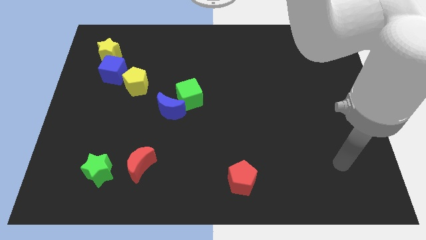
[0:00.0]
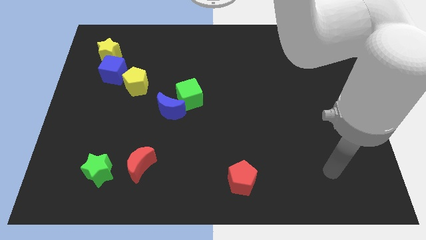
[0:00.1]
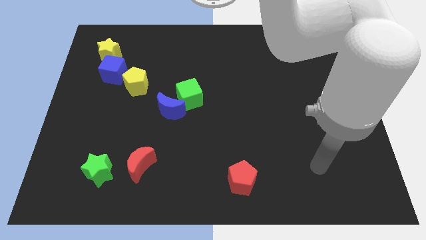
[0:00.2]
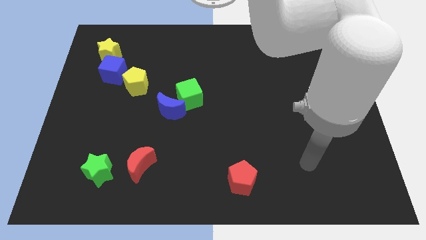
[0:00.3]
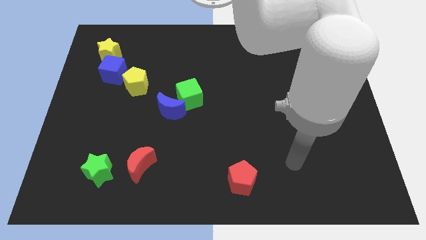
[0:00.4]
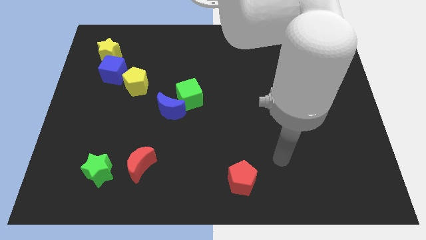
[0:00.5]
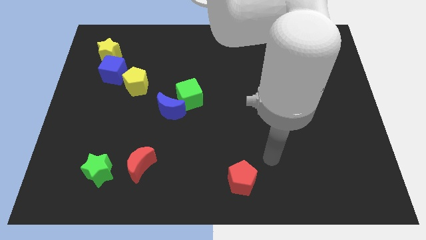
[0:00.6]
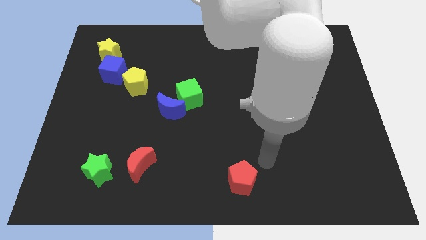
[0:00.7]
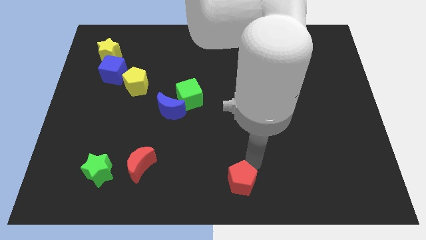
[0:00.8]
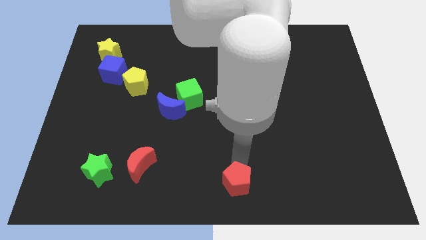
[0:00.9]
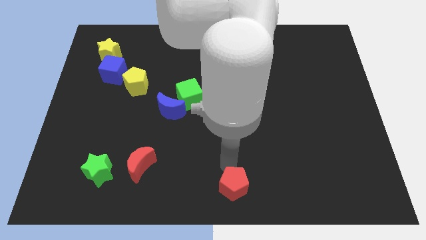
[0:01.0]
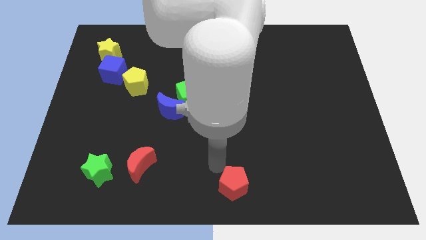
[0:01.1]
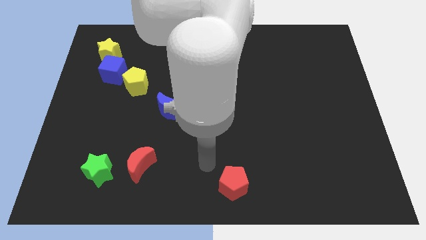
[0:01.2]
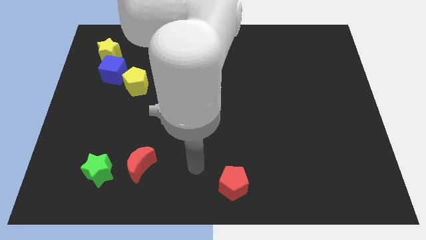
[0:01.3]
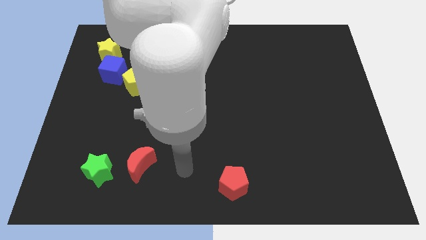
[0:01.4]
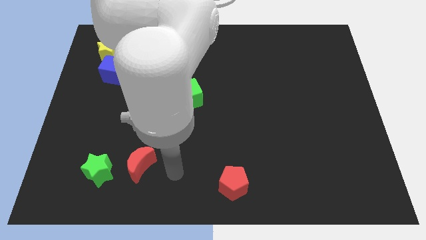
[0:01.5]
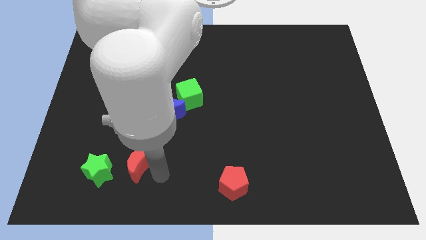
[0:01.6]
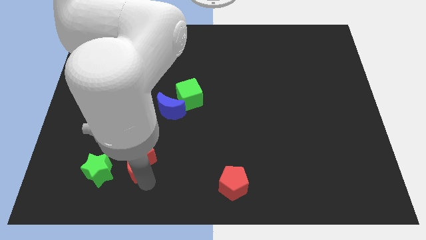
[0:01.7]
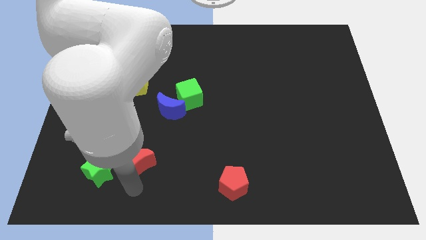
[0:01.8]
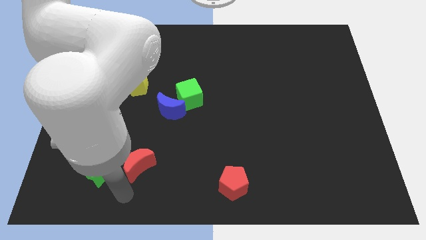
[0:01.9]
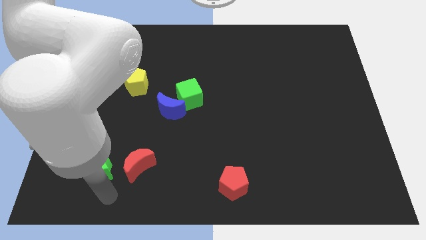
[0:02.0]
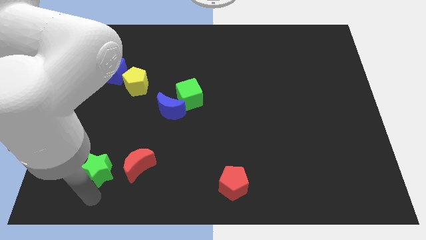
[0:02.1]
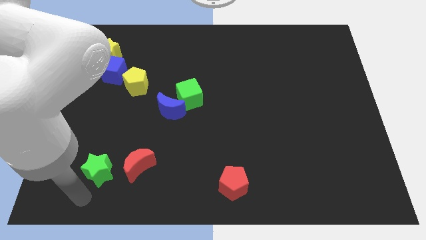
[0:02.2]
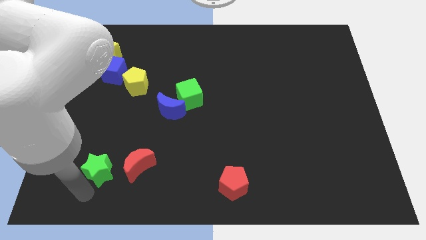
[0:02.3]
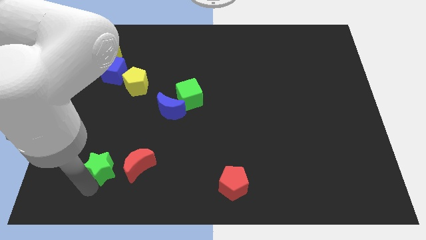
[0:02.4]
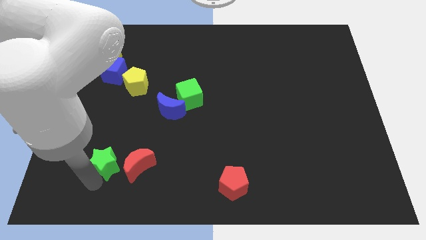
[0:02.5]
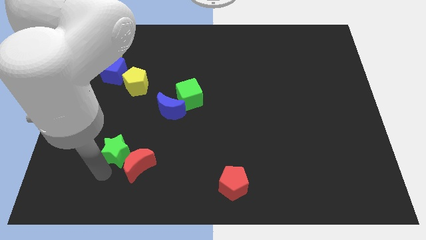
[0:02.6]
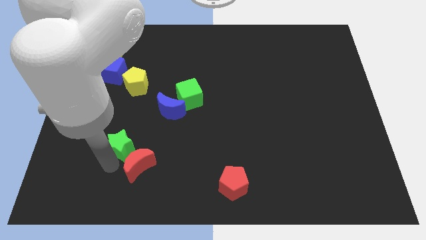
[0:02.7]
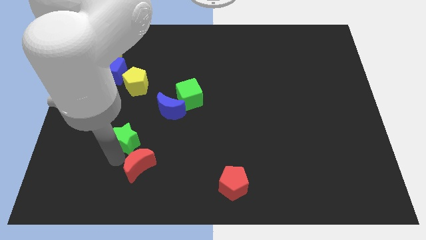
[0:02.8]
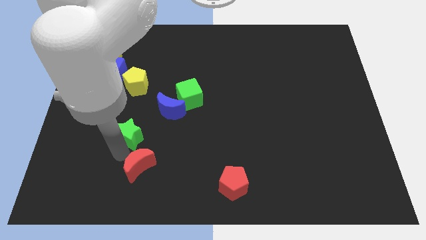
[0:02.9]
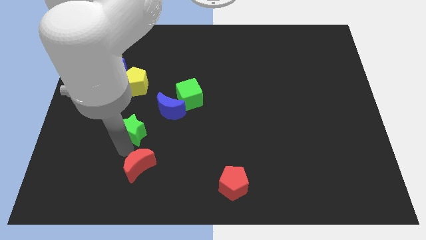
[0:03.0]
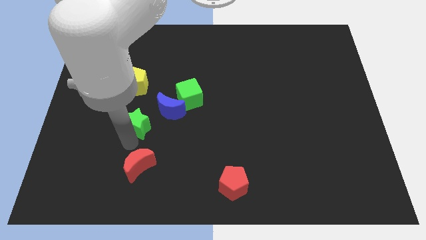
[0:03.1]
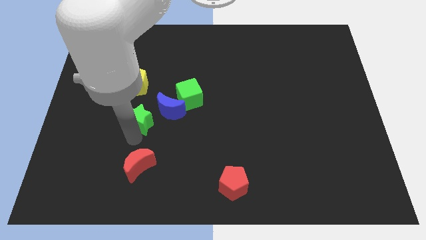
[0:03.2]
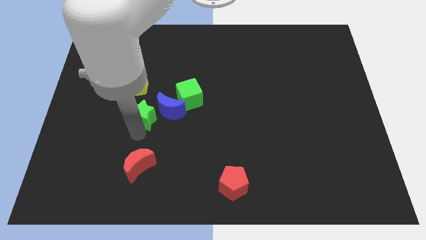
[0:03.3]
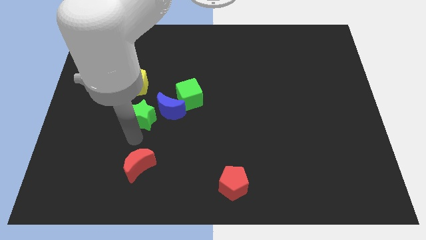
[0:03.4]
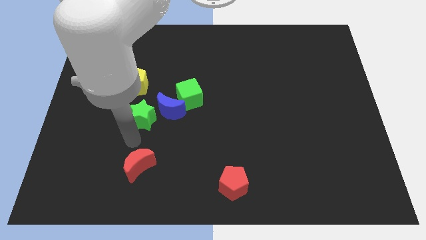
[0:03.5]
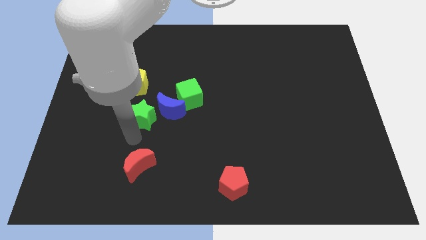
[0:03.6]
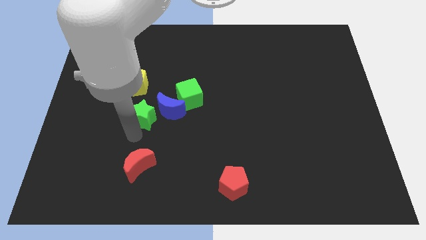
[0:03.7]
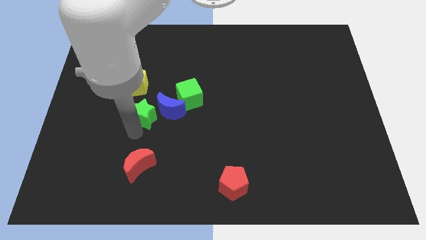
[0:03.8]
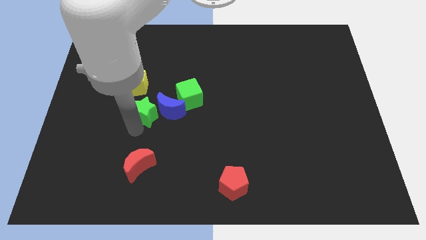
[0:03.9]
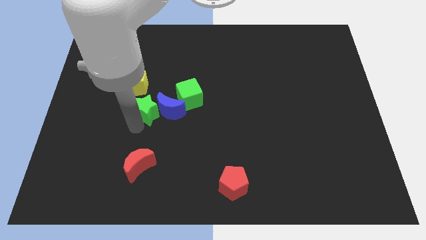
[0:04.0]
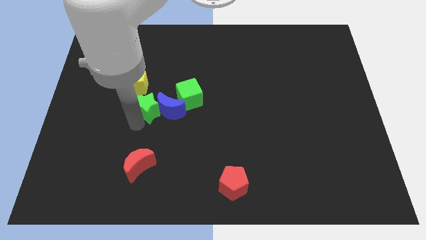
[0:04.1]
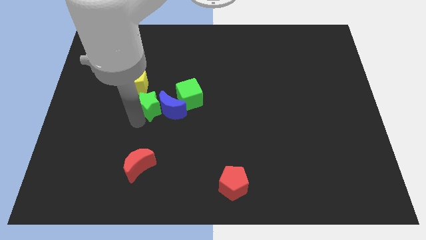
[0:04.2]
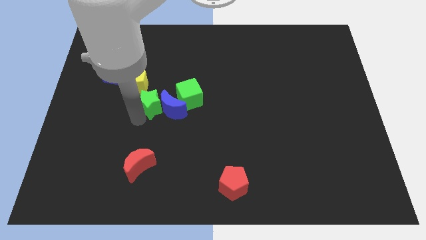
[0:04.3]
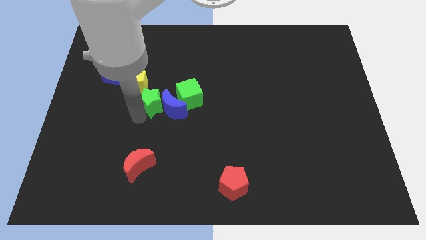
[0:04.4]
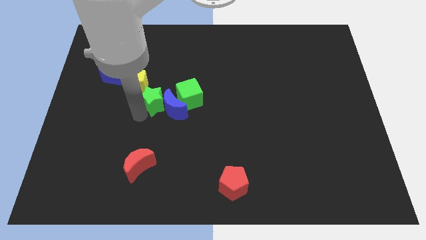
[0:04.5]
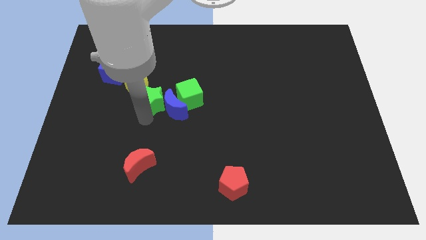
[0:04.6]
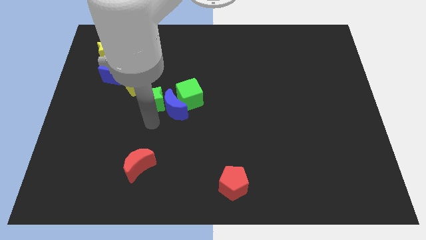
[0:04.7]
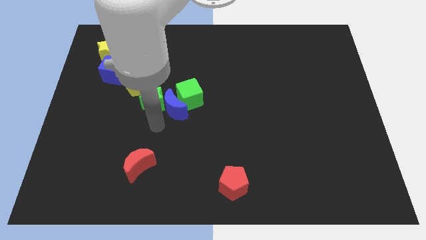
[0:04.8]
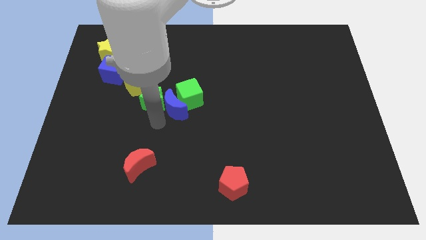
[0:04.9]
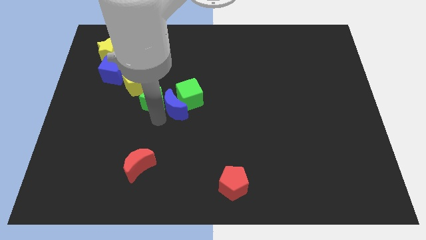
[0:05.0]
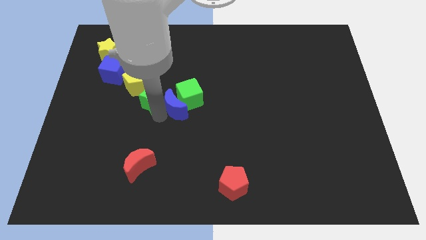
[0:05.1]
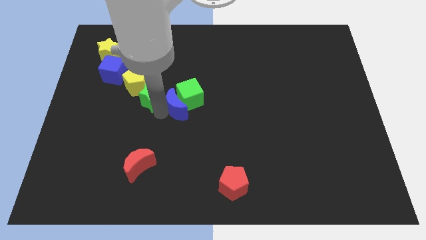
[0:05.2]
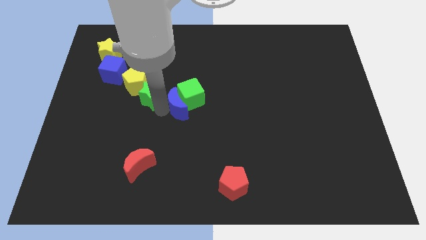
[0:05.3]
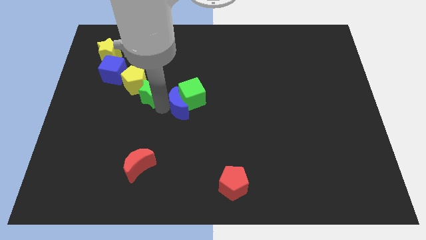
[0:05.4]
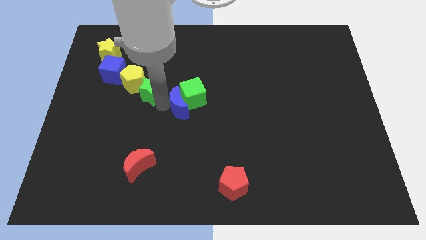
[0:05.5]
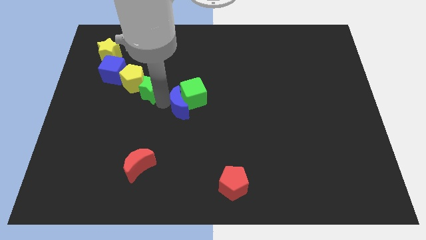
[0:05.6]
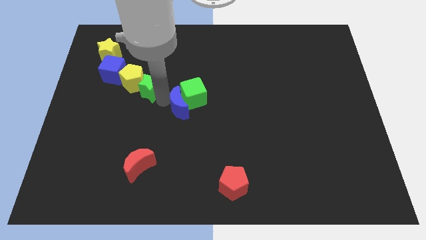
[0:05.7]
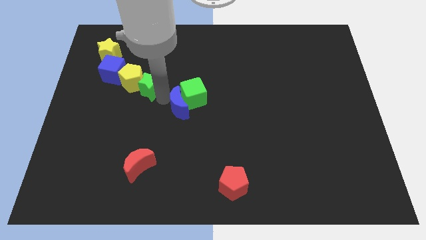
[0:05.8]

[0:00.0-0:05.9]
move the green star upwards

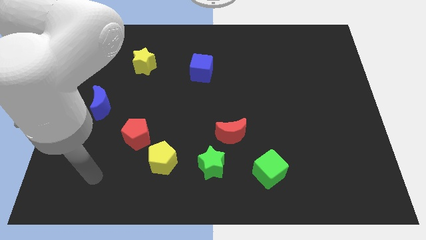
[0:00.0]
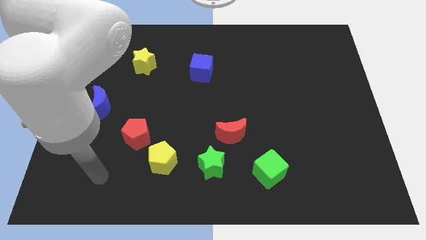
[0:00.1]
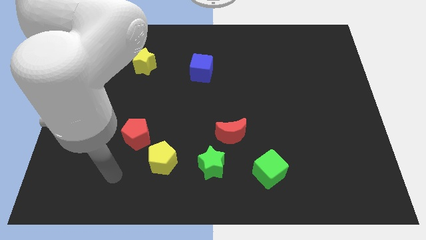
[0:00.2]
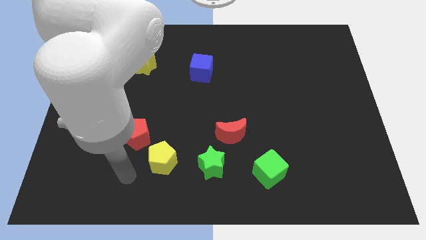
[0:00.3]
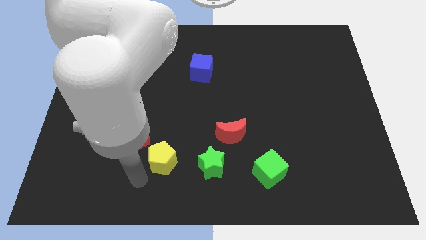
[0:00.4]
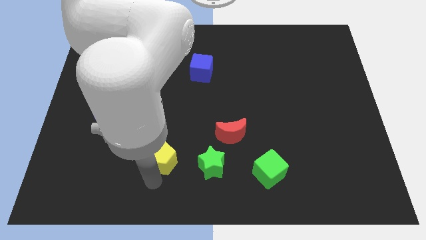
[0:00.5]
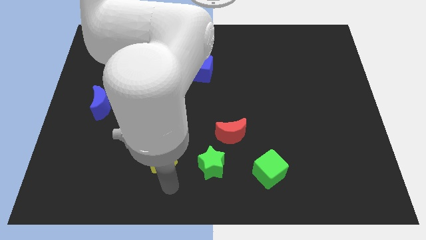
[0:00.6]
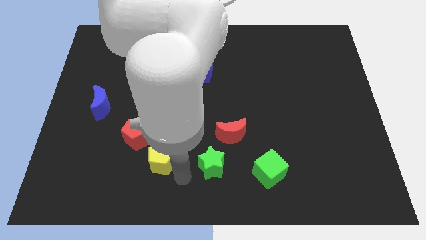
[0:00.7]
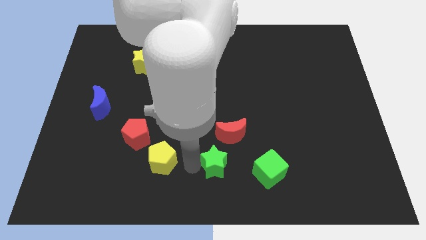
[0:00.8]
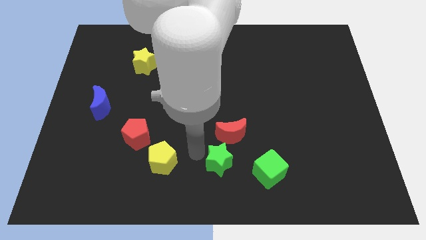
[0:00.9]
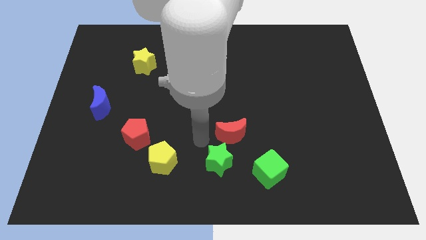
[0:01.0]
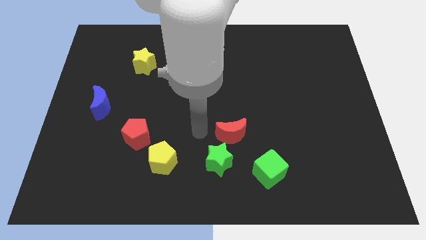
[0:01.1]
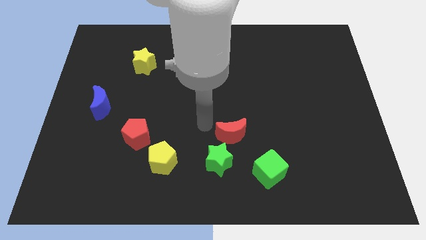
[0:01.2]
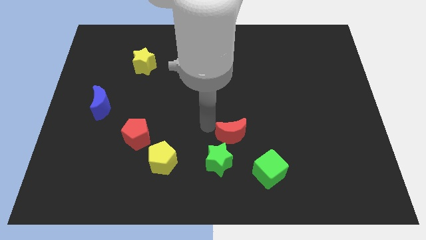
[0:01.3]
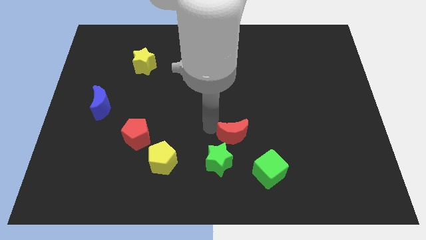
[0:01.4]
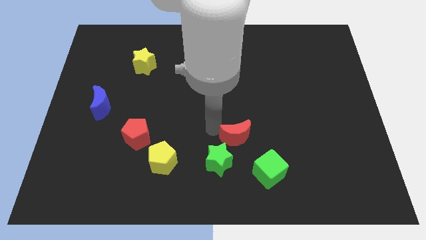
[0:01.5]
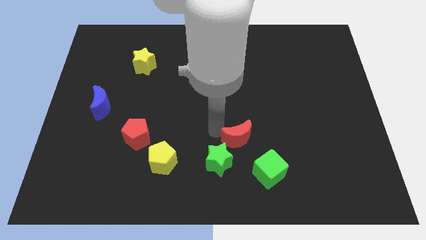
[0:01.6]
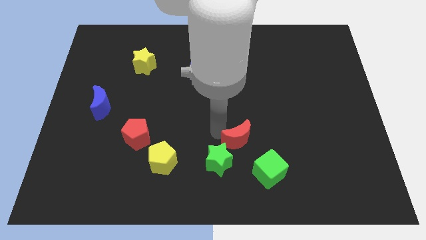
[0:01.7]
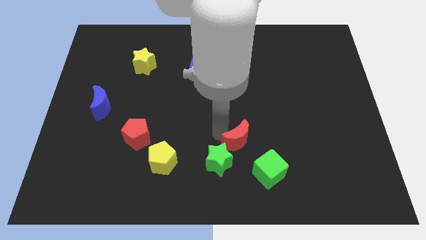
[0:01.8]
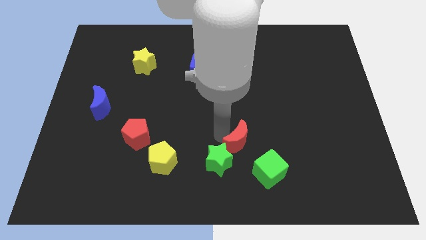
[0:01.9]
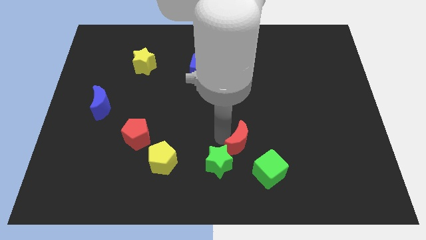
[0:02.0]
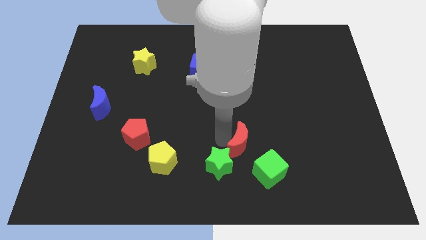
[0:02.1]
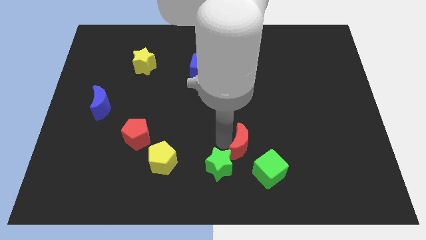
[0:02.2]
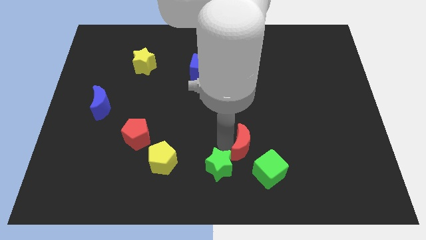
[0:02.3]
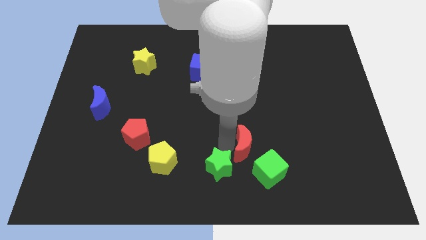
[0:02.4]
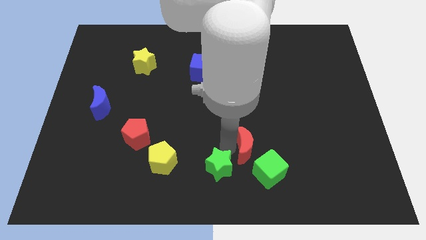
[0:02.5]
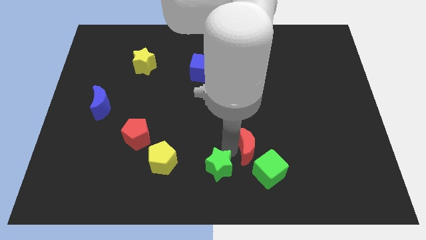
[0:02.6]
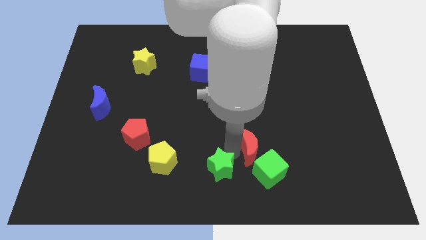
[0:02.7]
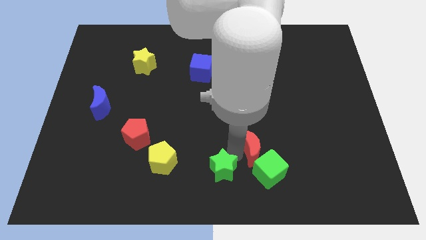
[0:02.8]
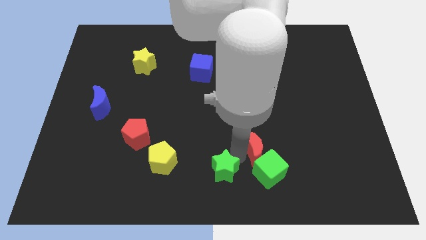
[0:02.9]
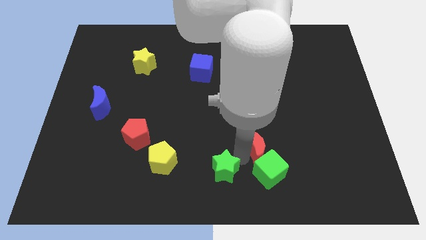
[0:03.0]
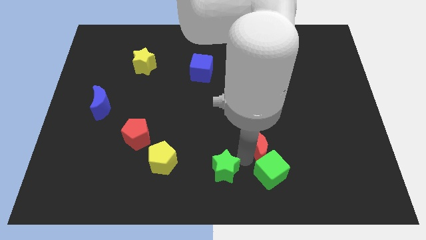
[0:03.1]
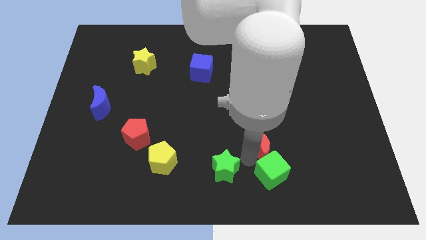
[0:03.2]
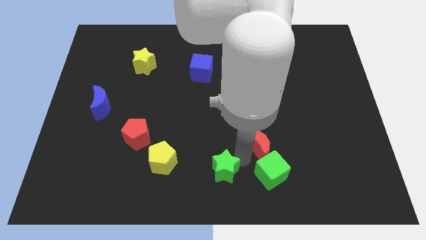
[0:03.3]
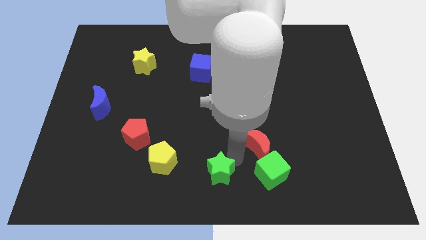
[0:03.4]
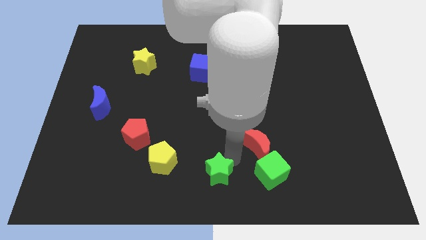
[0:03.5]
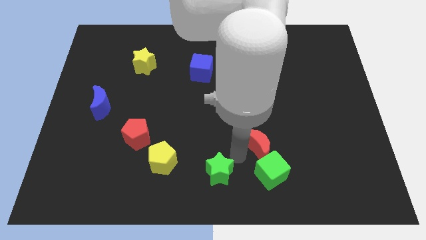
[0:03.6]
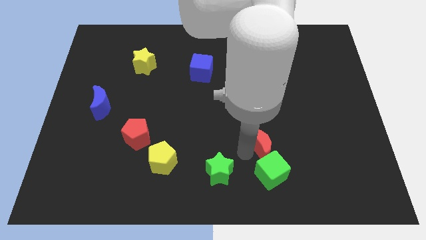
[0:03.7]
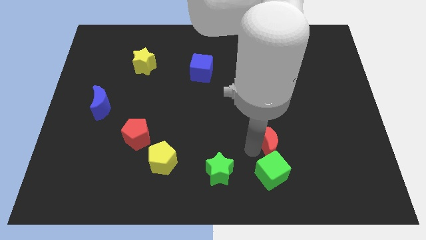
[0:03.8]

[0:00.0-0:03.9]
slide the red moon somewhat right
